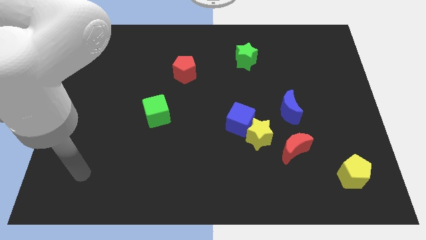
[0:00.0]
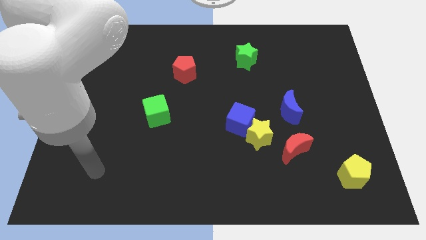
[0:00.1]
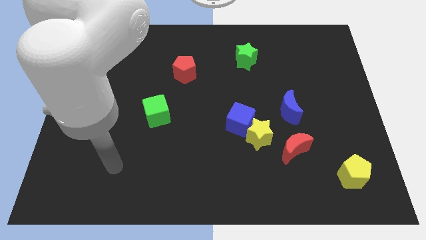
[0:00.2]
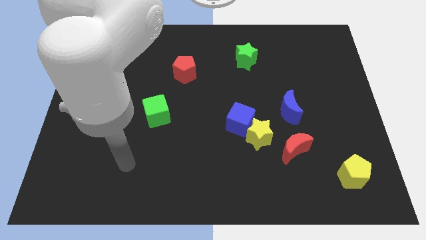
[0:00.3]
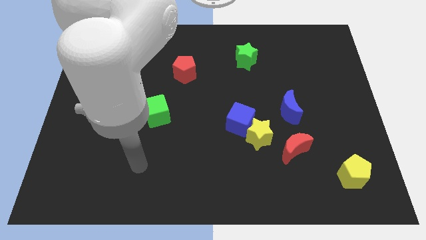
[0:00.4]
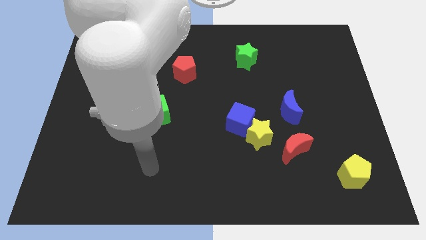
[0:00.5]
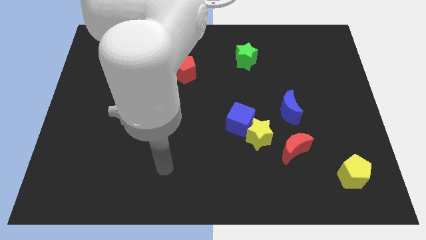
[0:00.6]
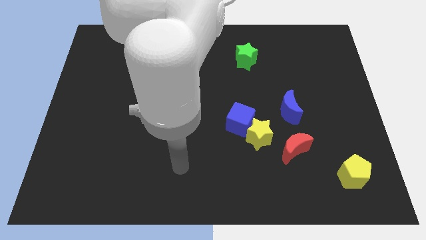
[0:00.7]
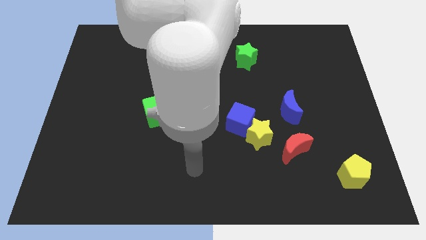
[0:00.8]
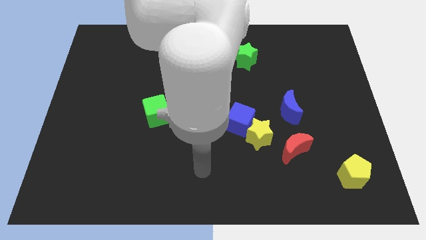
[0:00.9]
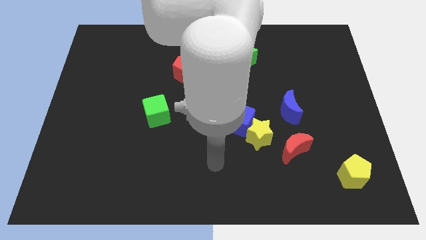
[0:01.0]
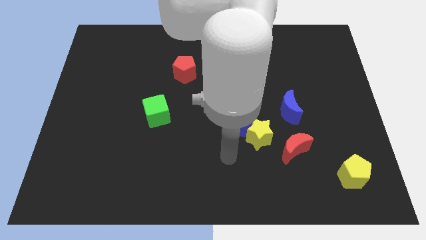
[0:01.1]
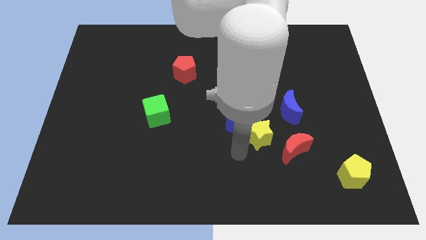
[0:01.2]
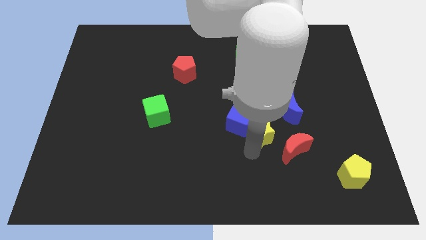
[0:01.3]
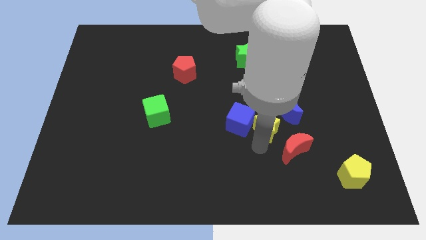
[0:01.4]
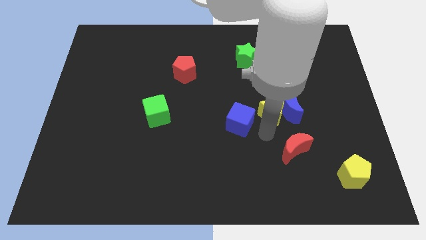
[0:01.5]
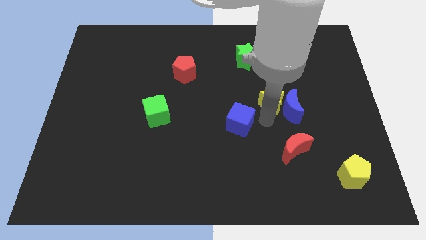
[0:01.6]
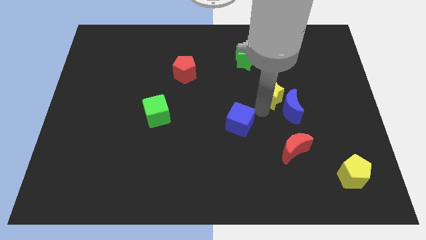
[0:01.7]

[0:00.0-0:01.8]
move the blue cube away from the yellow star

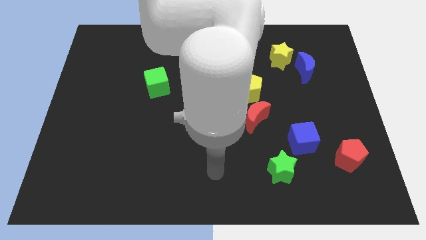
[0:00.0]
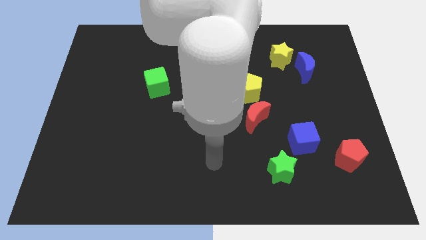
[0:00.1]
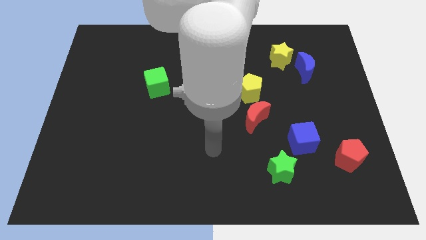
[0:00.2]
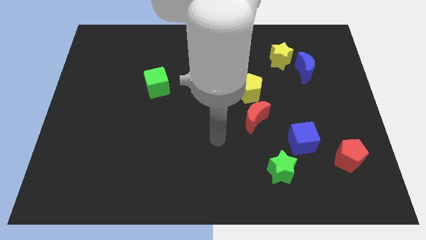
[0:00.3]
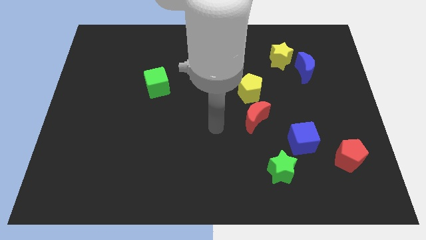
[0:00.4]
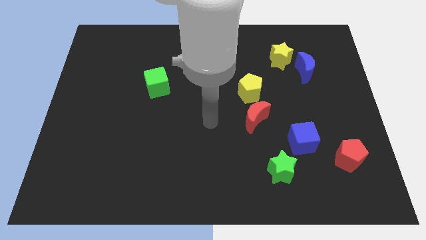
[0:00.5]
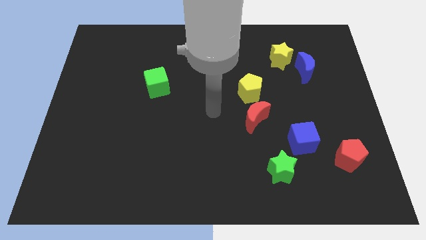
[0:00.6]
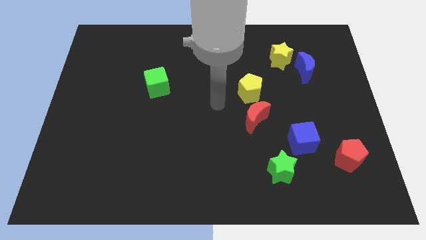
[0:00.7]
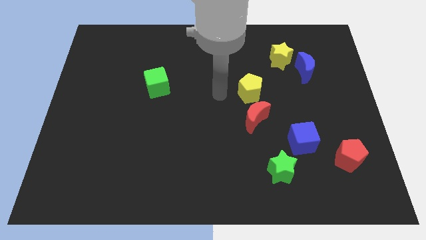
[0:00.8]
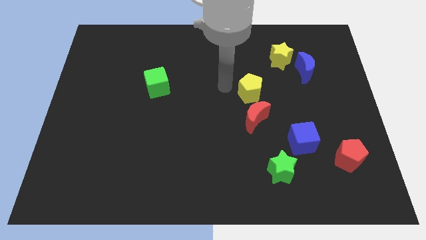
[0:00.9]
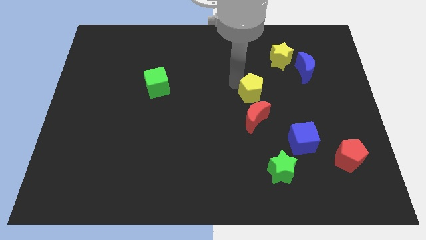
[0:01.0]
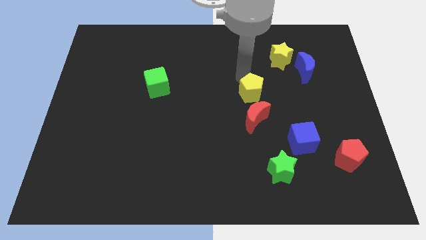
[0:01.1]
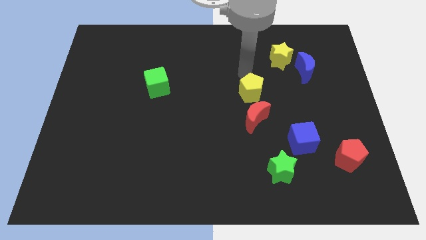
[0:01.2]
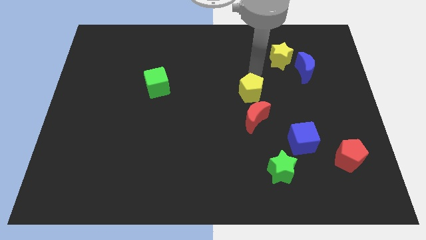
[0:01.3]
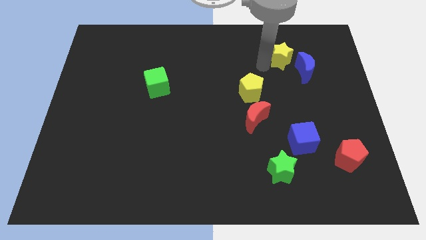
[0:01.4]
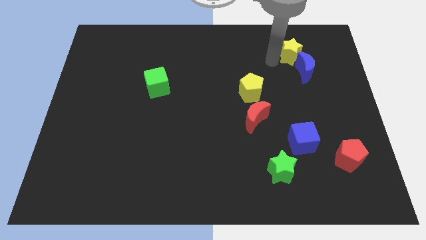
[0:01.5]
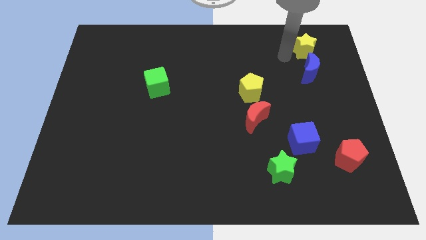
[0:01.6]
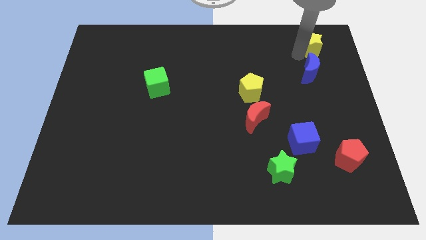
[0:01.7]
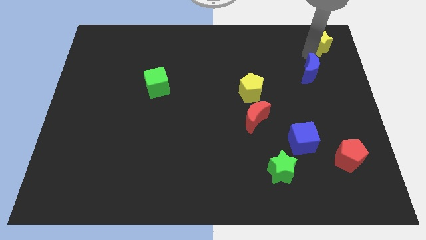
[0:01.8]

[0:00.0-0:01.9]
move the blue moon away from the yellow star

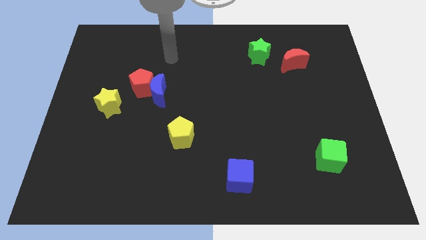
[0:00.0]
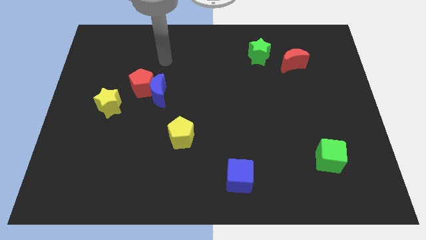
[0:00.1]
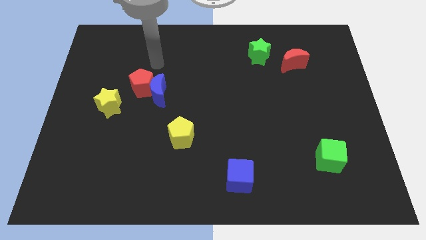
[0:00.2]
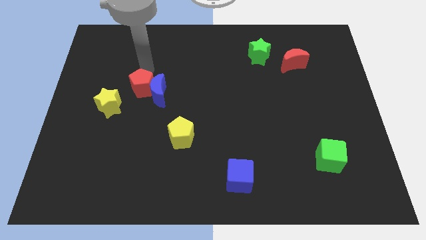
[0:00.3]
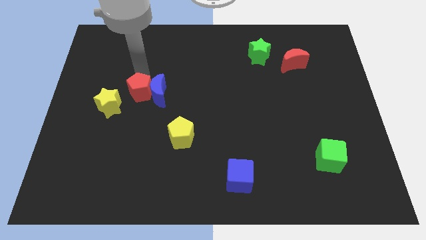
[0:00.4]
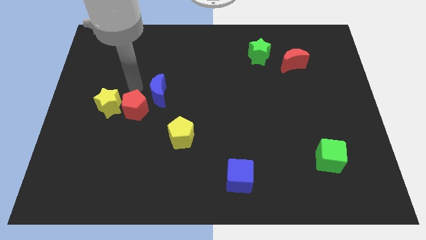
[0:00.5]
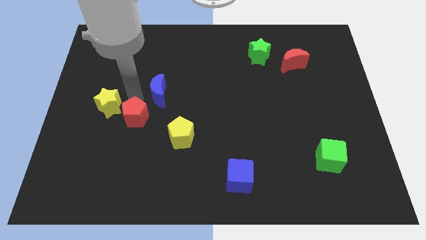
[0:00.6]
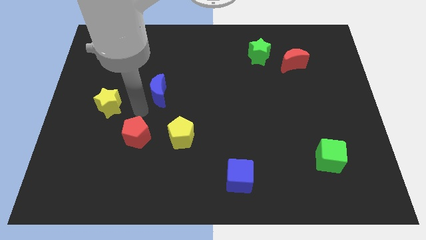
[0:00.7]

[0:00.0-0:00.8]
move the blue moon away from the red pentagon

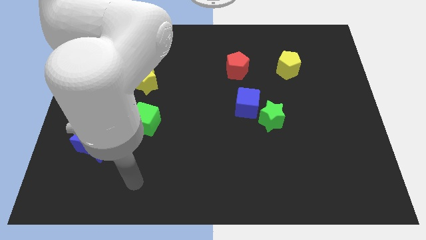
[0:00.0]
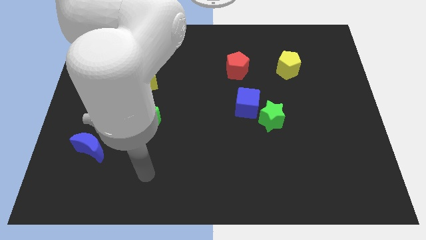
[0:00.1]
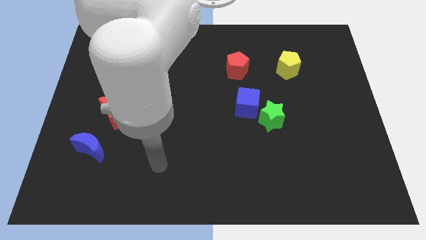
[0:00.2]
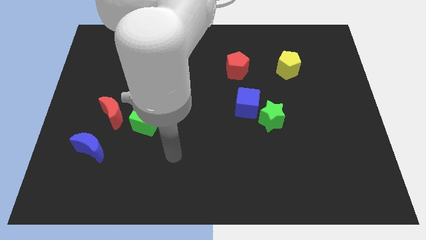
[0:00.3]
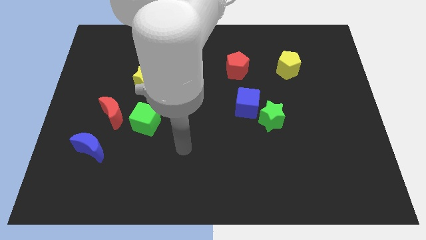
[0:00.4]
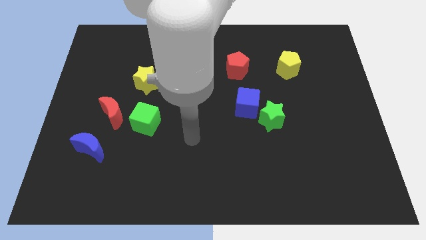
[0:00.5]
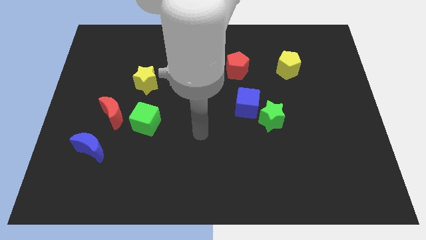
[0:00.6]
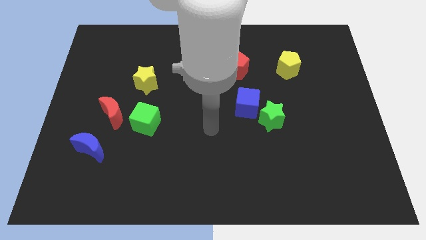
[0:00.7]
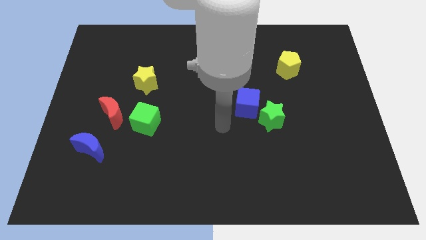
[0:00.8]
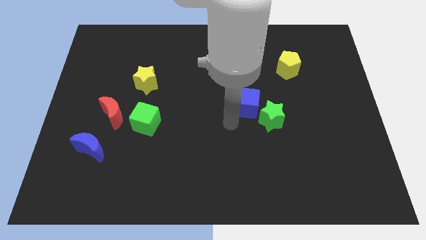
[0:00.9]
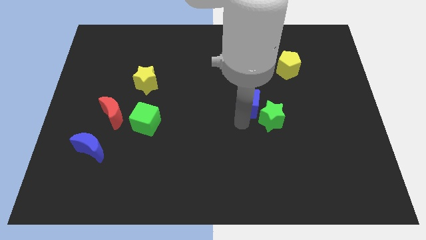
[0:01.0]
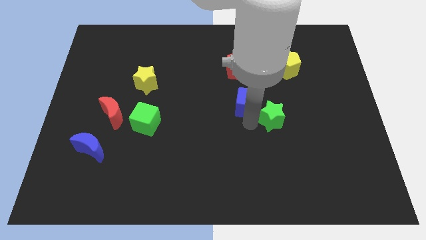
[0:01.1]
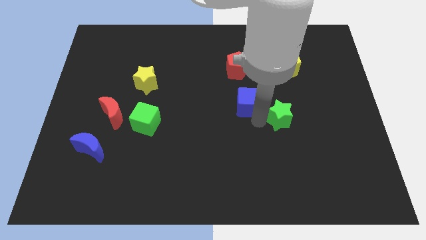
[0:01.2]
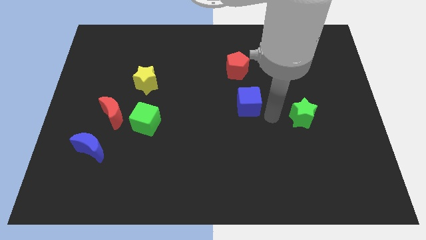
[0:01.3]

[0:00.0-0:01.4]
pull the blue cube apart from the green star

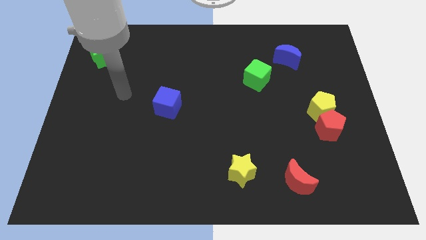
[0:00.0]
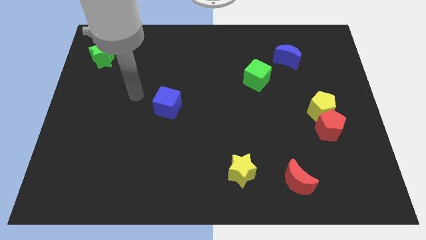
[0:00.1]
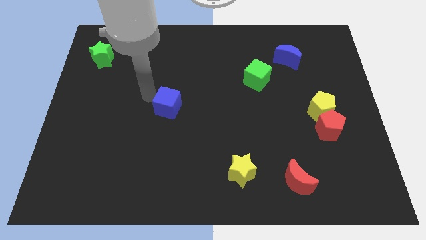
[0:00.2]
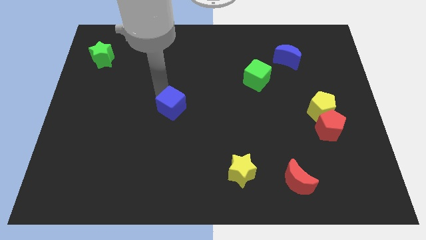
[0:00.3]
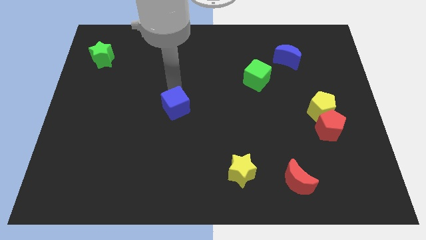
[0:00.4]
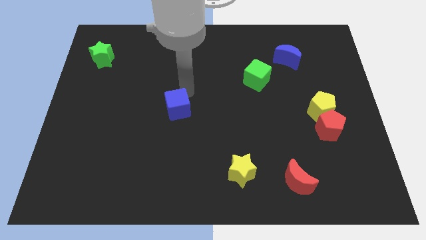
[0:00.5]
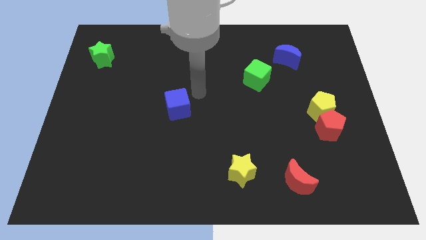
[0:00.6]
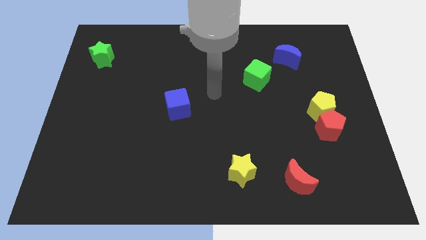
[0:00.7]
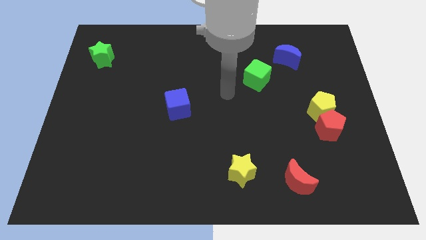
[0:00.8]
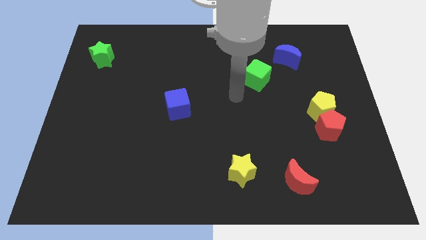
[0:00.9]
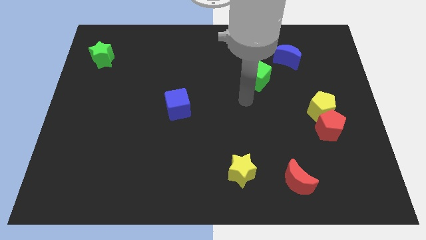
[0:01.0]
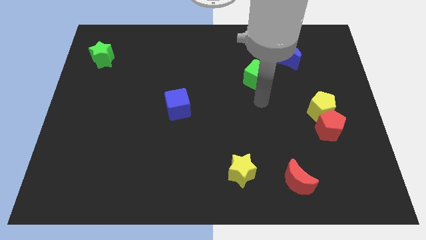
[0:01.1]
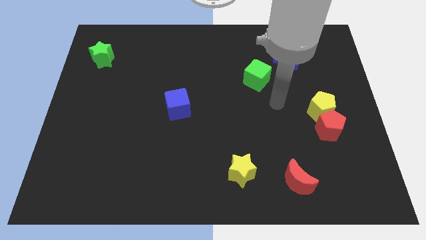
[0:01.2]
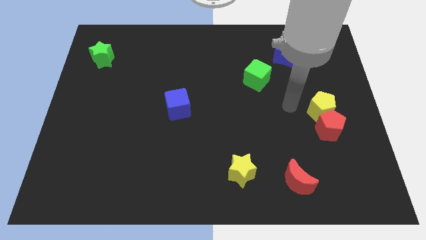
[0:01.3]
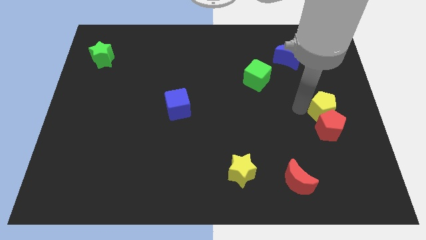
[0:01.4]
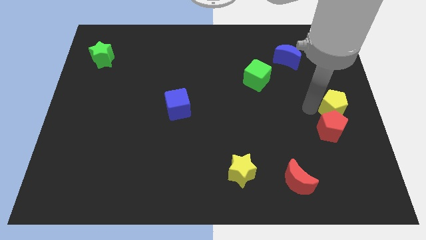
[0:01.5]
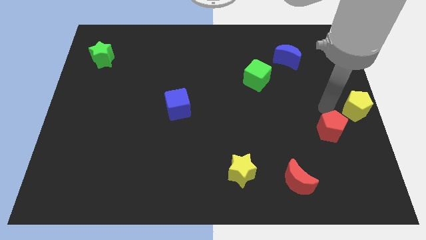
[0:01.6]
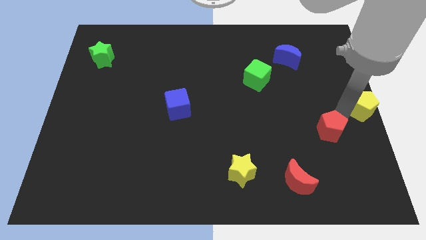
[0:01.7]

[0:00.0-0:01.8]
separate the red pentagon from the yellow pentagon

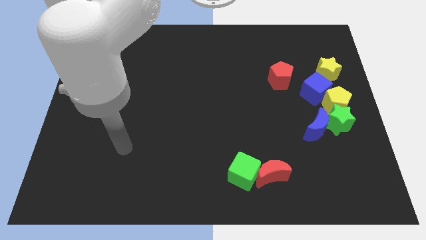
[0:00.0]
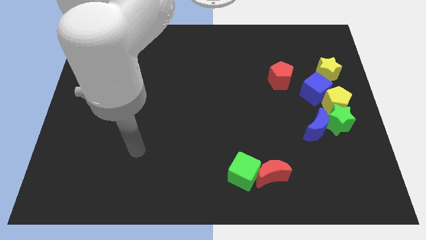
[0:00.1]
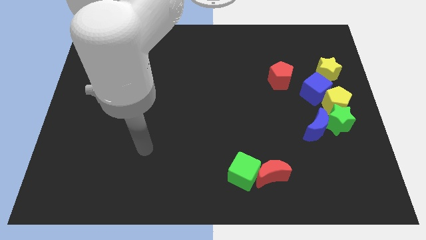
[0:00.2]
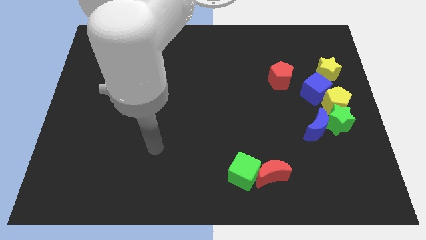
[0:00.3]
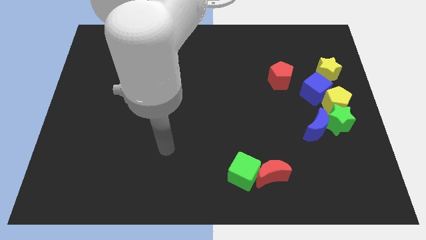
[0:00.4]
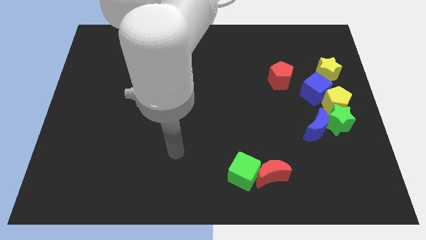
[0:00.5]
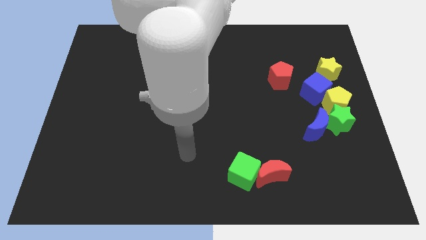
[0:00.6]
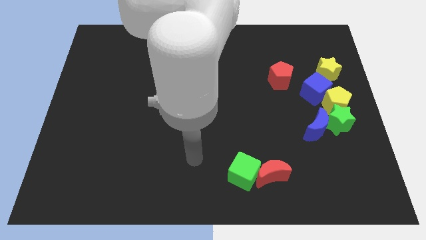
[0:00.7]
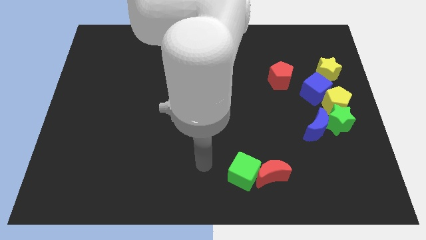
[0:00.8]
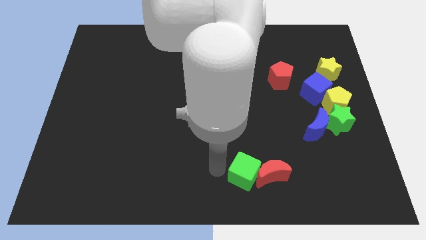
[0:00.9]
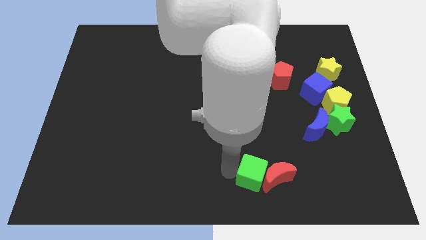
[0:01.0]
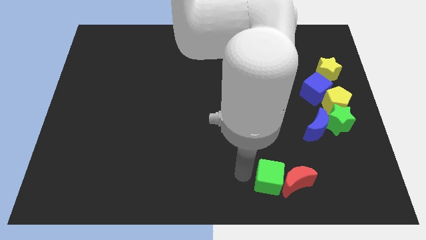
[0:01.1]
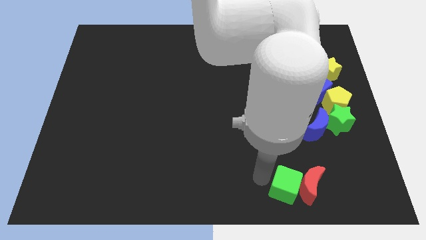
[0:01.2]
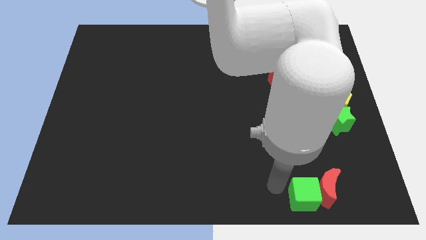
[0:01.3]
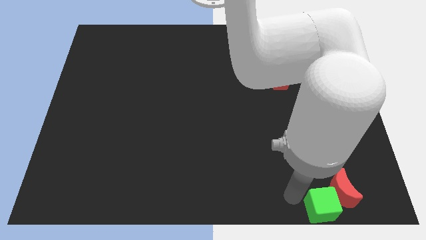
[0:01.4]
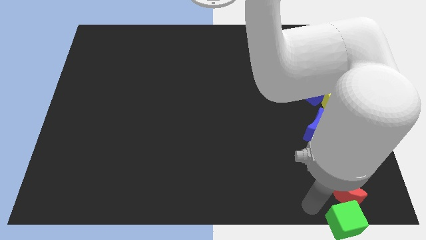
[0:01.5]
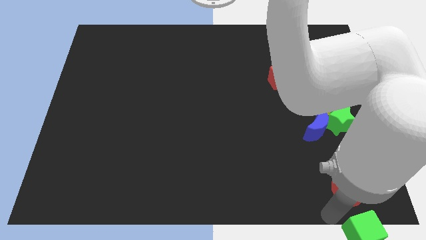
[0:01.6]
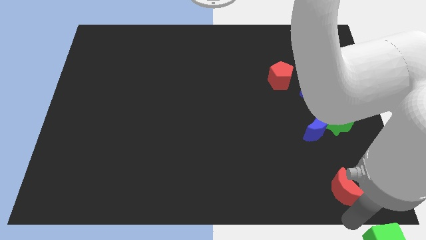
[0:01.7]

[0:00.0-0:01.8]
pull the red moon apart from the green cube
